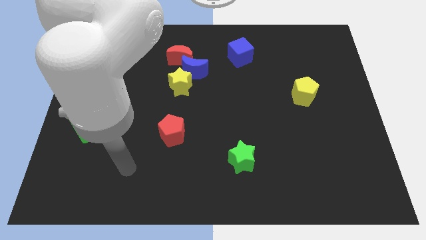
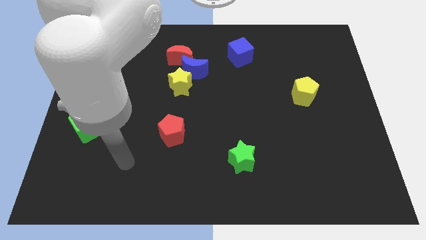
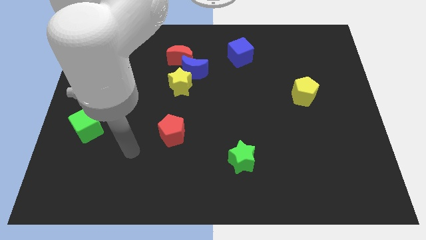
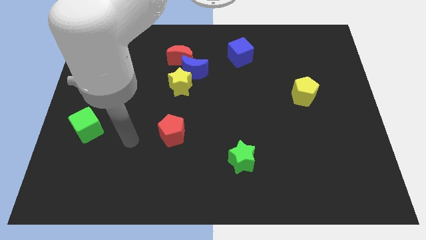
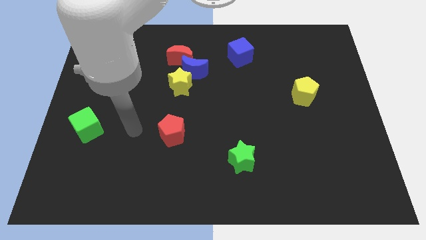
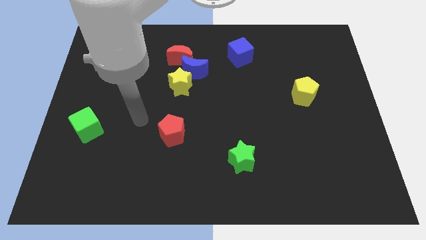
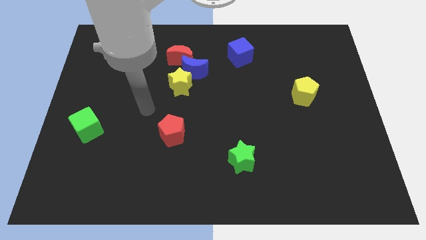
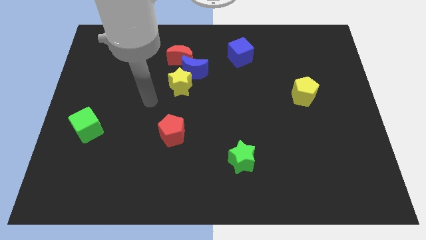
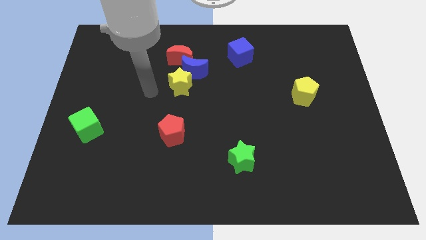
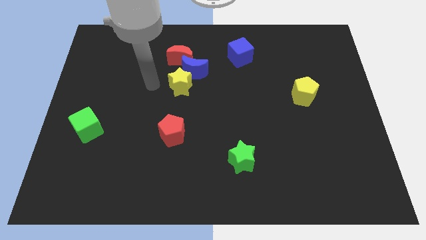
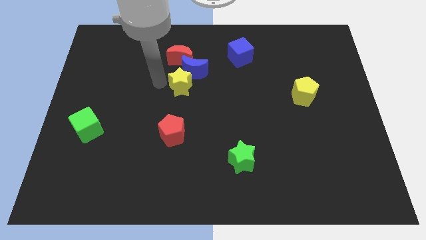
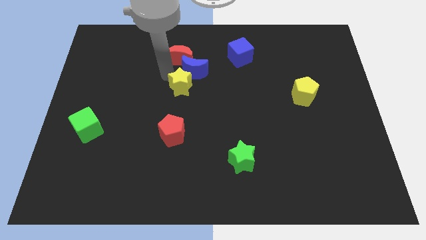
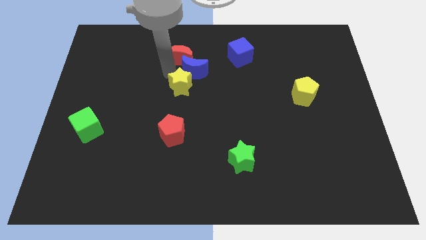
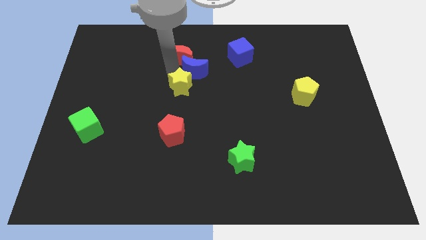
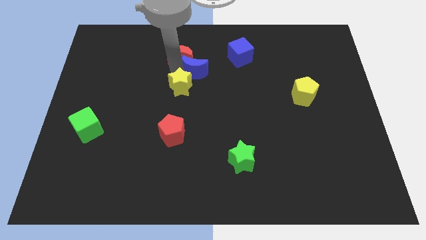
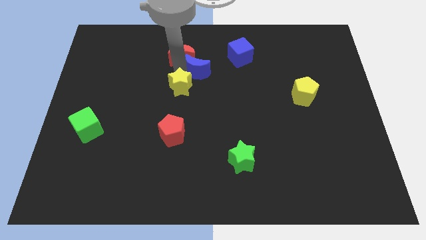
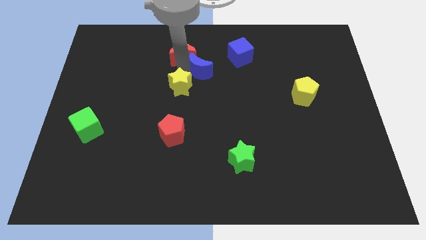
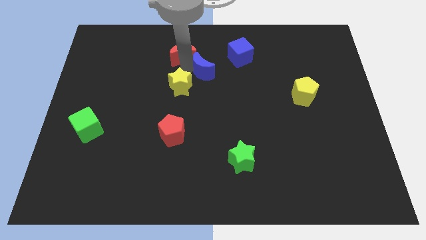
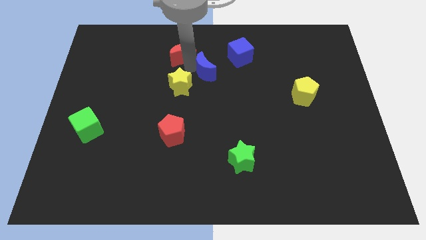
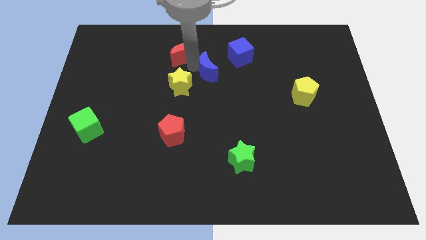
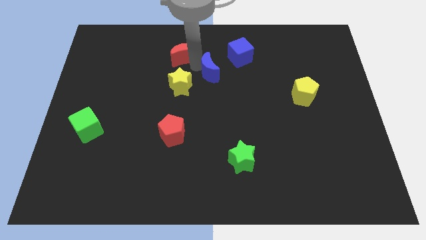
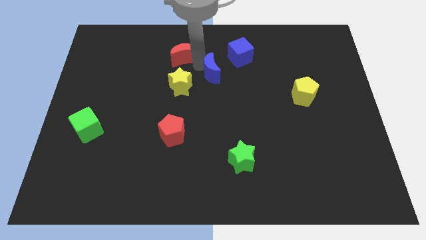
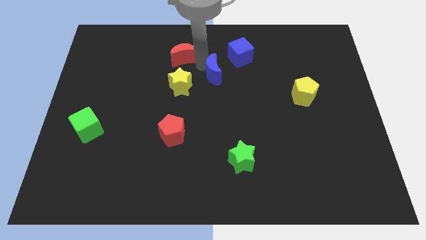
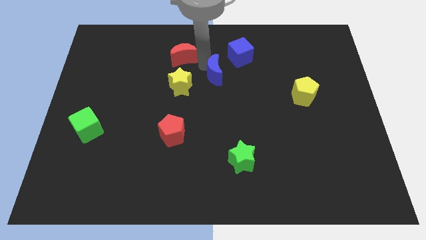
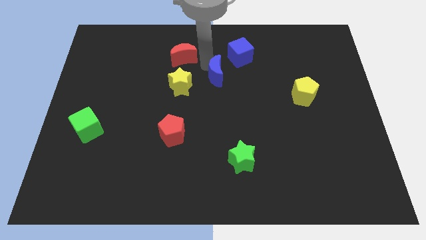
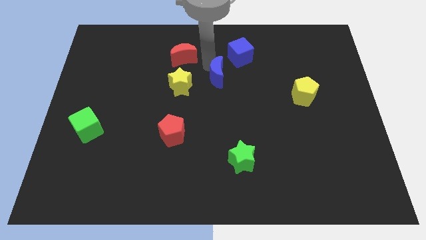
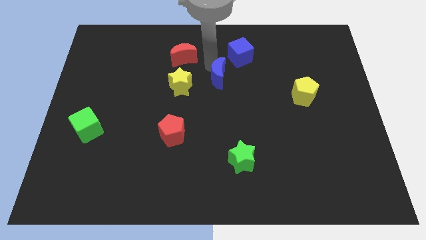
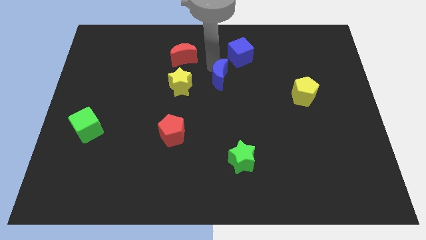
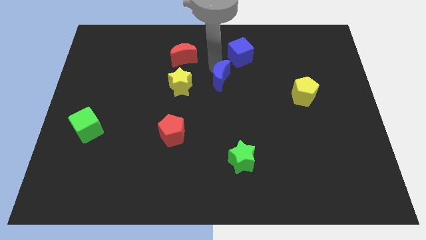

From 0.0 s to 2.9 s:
separate the blue moon from the red moon and yellow star

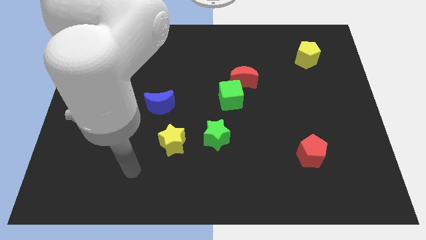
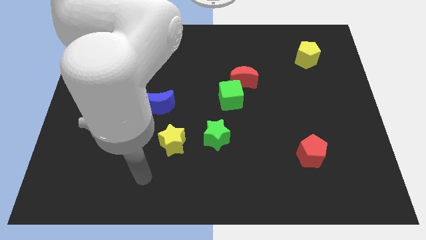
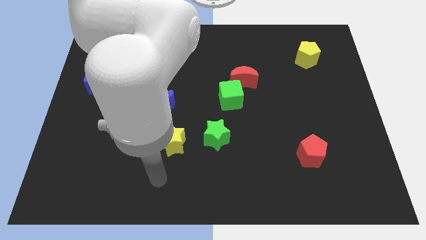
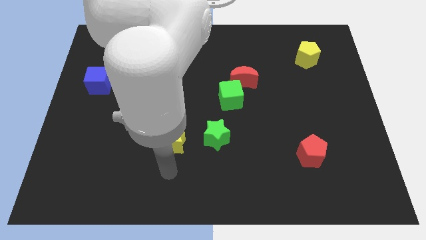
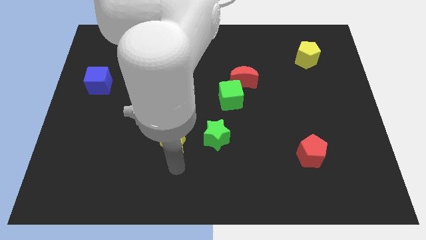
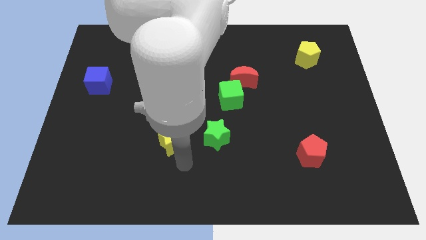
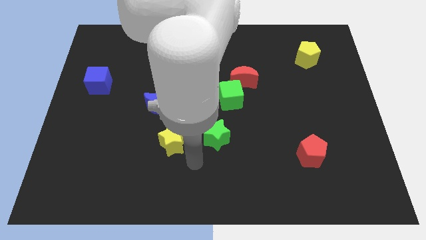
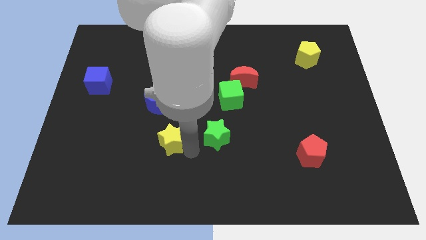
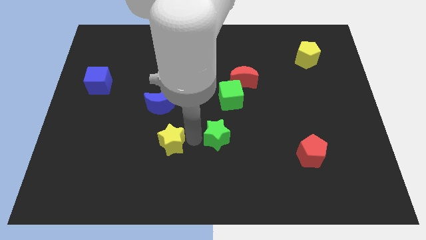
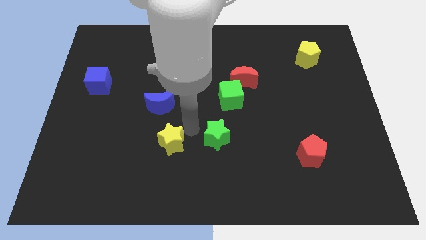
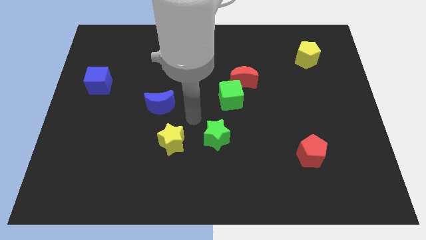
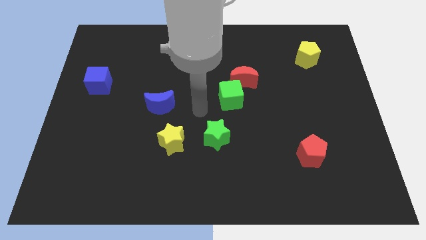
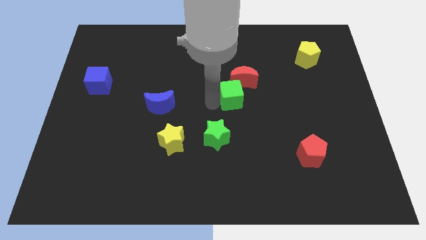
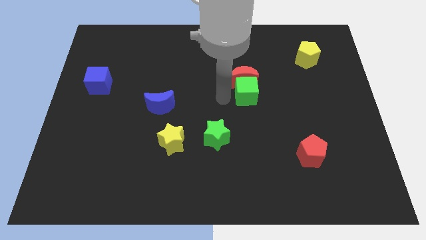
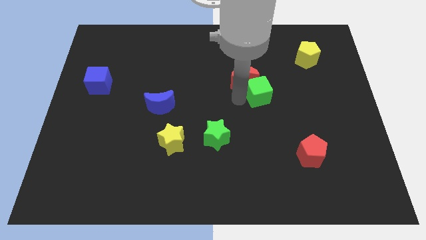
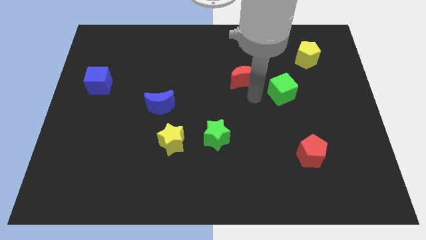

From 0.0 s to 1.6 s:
pull the red moon apart from the green cube

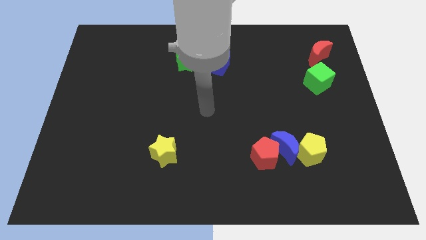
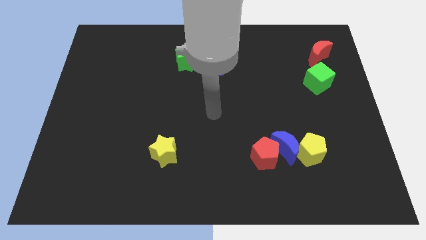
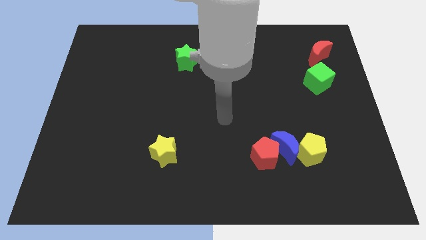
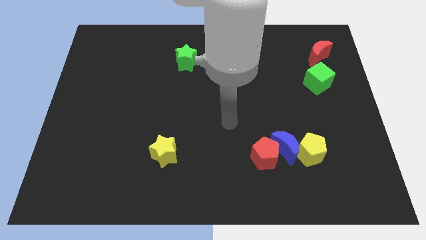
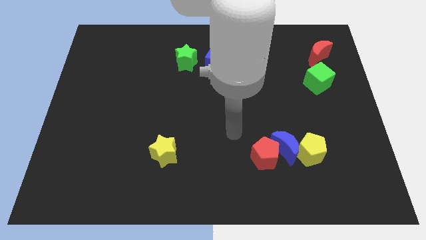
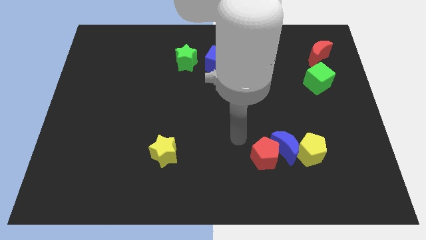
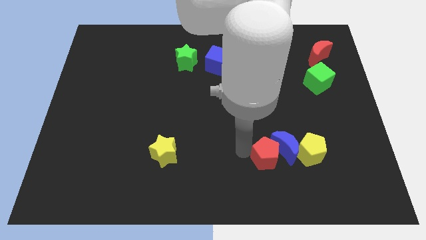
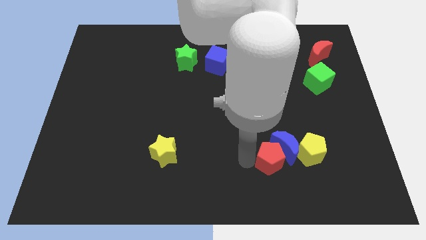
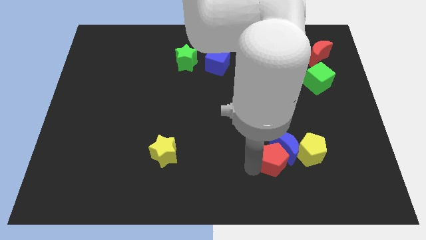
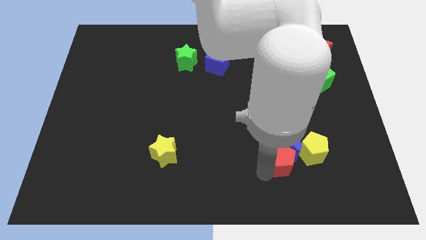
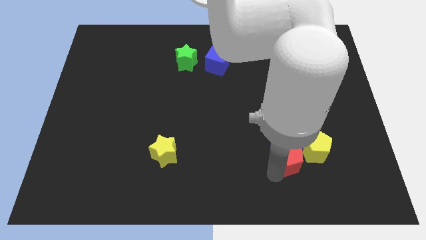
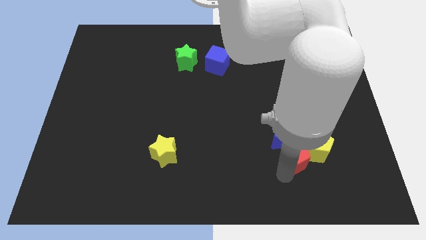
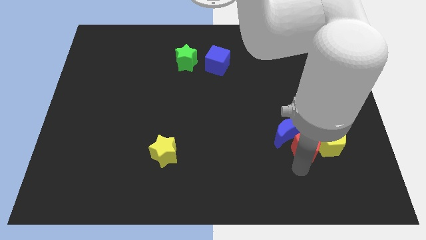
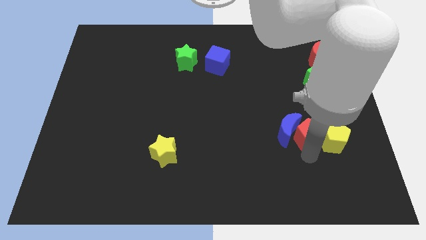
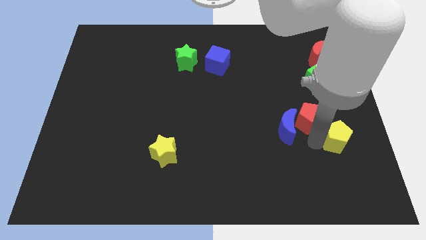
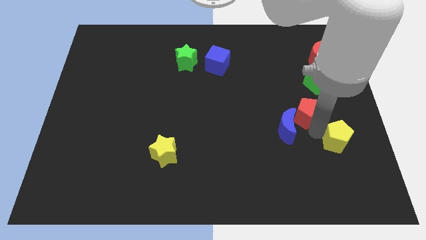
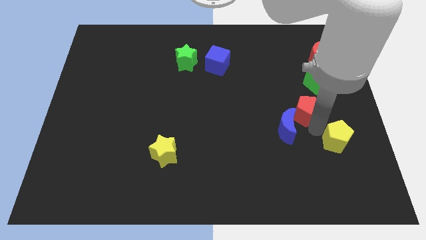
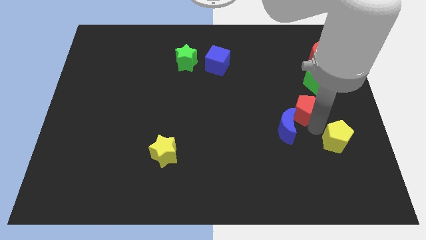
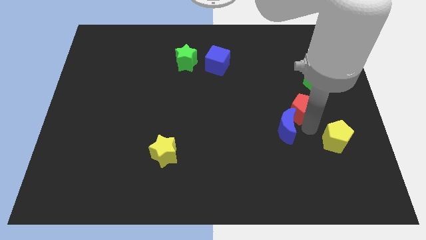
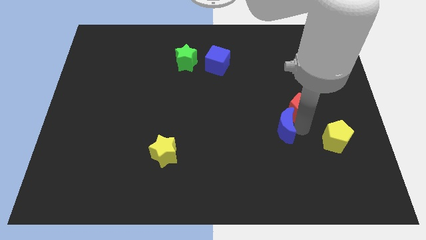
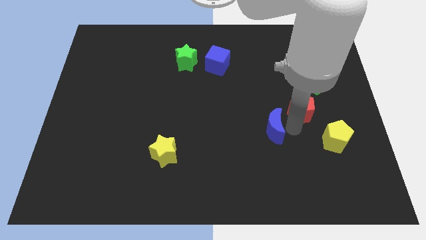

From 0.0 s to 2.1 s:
move the blue moon away from the red pentagon and yellow pentagon

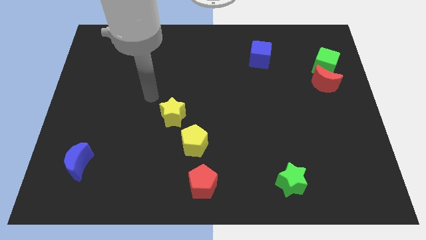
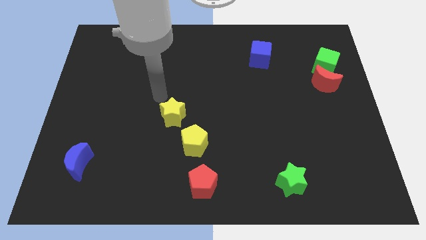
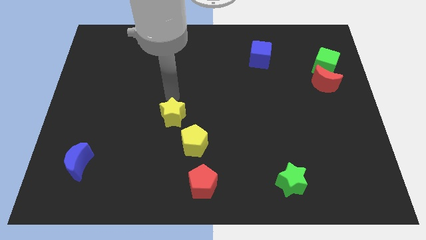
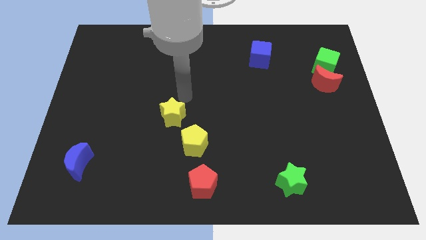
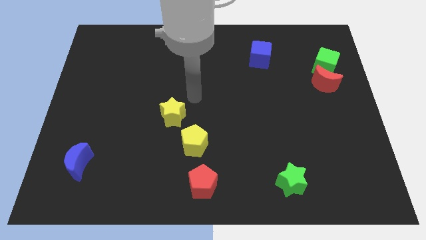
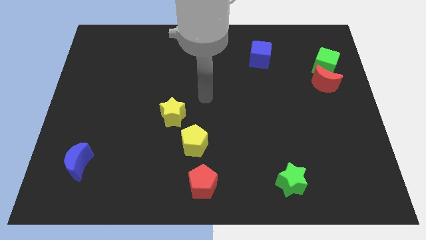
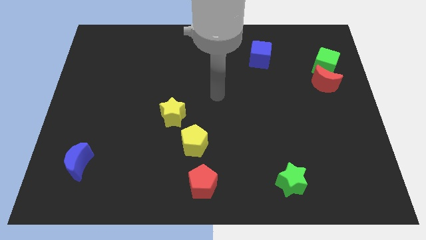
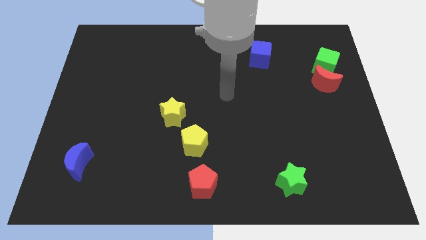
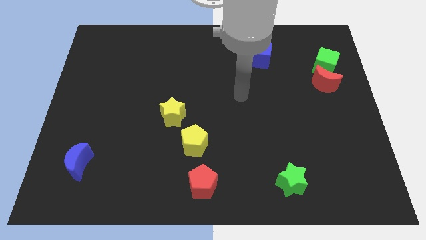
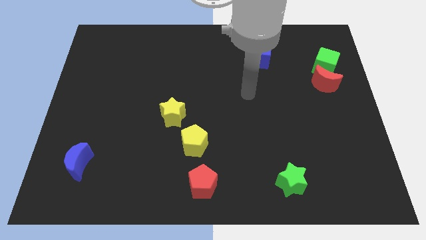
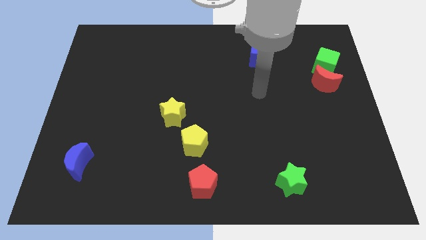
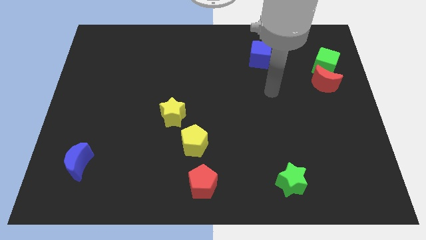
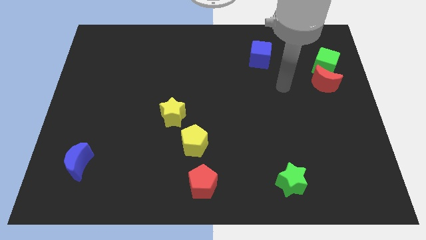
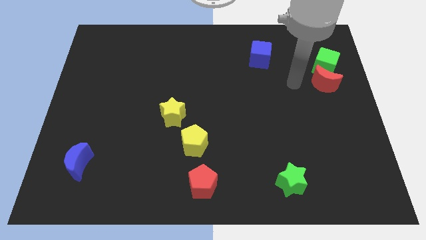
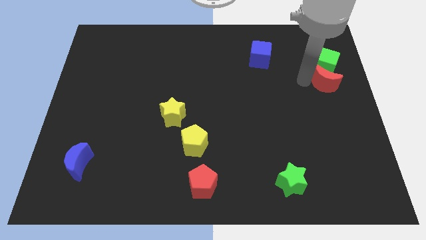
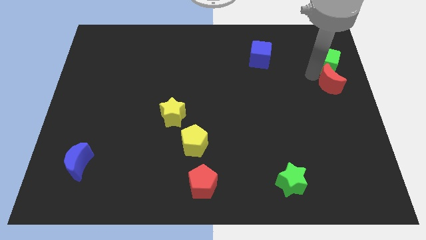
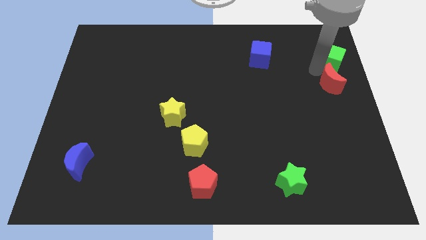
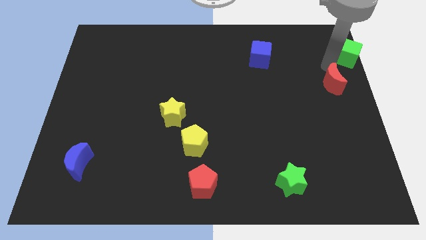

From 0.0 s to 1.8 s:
separate the red moon from the green cube

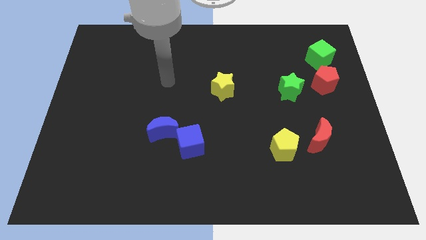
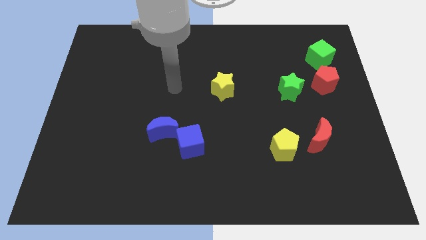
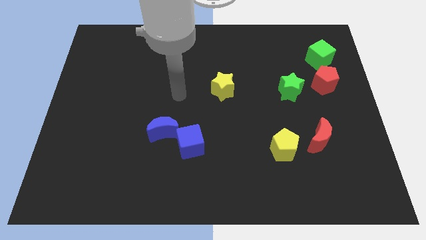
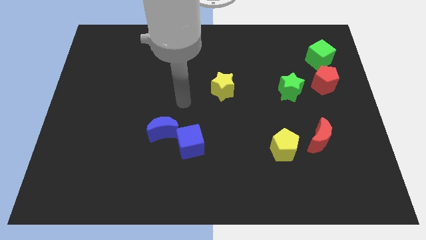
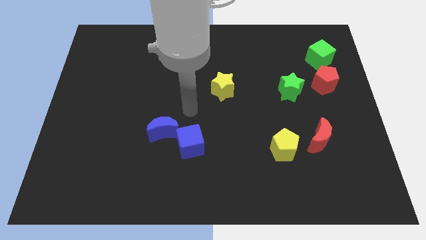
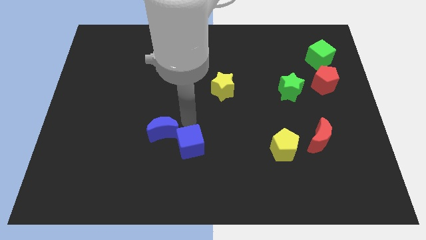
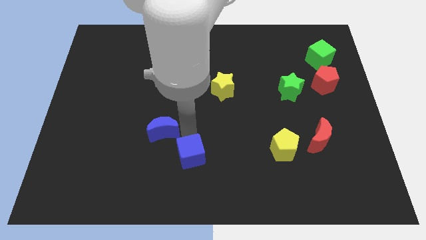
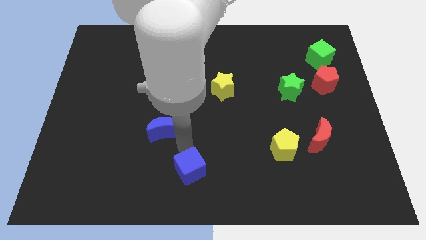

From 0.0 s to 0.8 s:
move the blue moon away from the blue cube

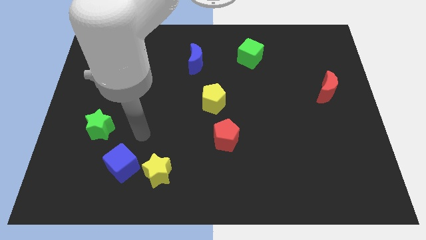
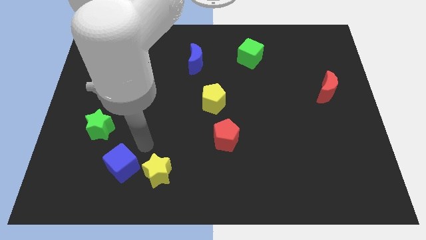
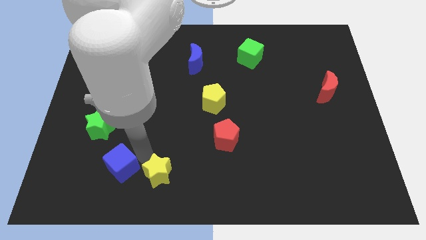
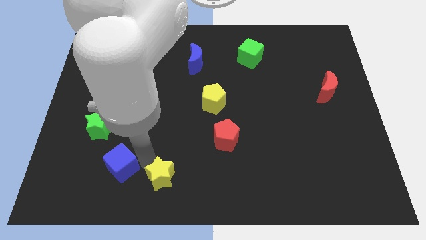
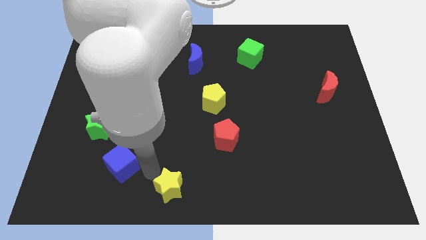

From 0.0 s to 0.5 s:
move the blue cube away from the yellow star
